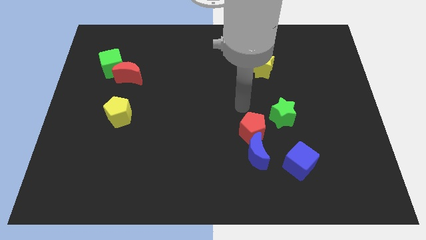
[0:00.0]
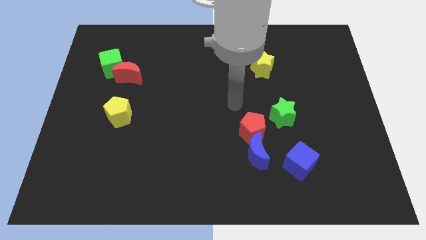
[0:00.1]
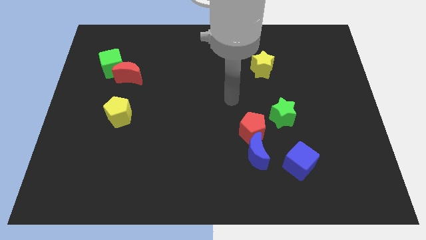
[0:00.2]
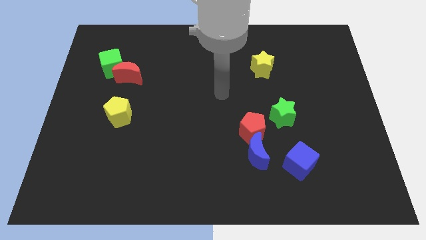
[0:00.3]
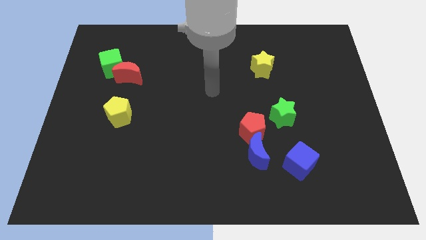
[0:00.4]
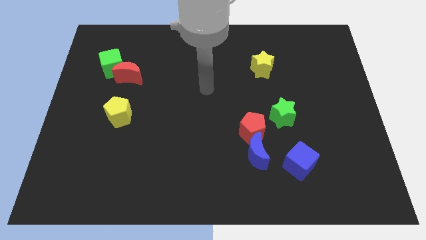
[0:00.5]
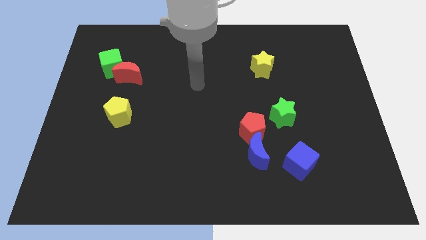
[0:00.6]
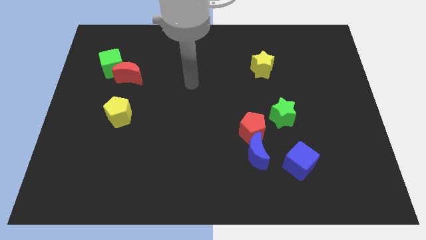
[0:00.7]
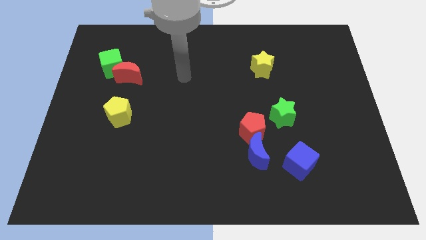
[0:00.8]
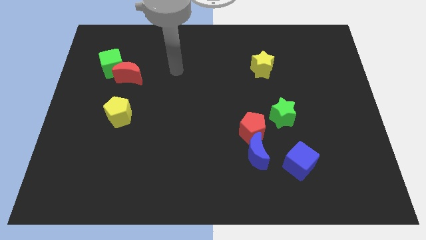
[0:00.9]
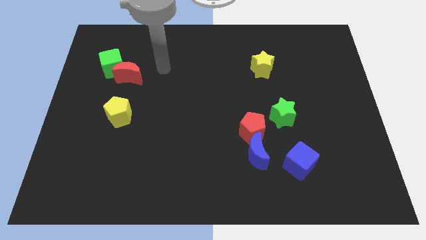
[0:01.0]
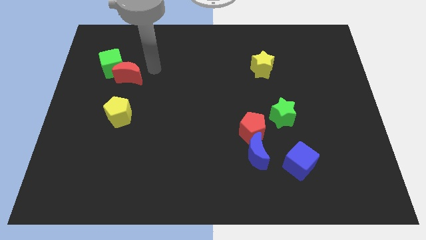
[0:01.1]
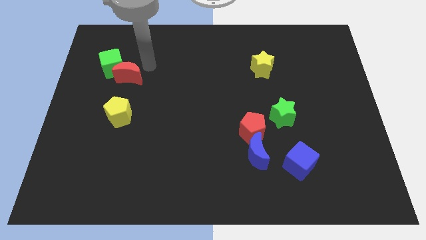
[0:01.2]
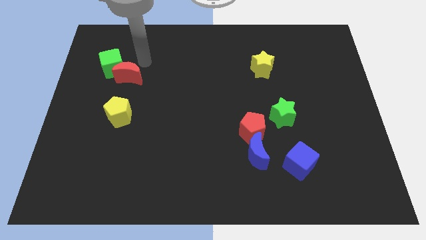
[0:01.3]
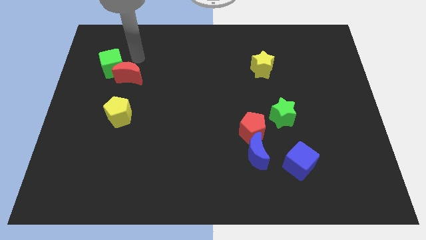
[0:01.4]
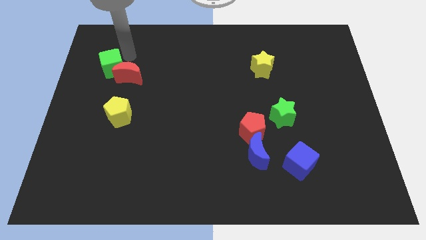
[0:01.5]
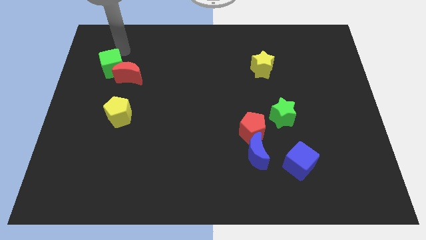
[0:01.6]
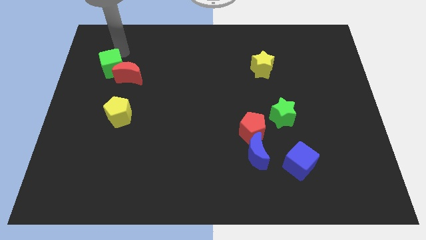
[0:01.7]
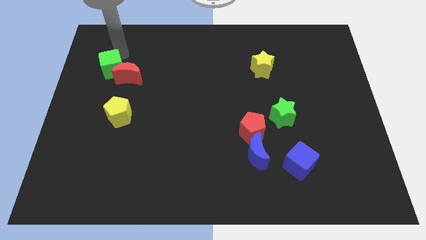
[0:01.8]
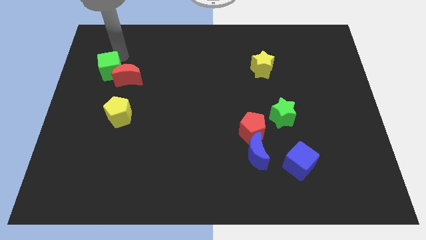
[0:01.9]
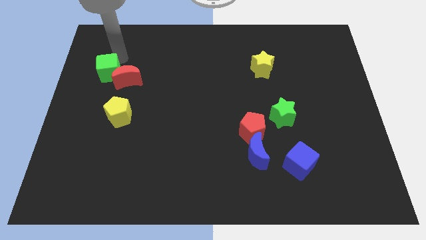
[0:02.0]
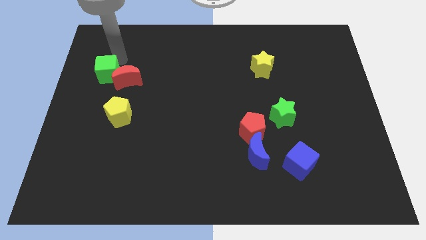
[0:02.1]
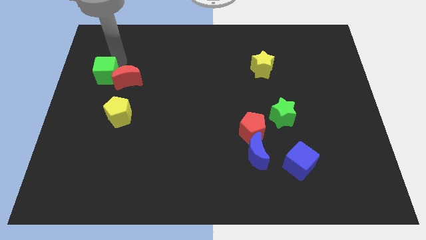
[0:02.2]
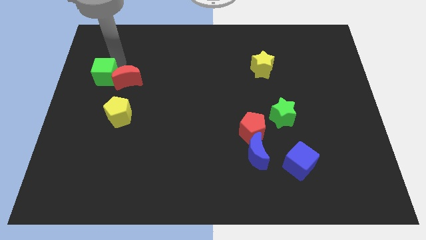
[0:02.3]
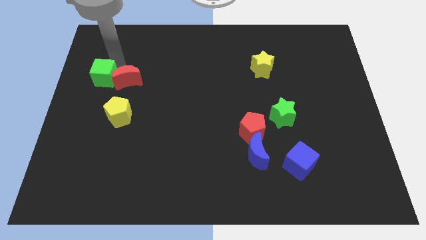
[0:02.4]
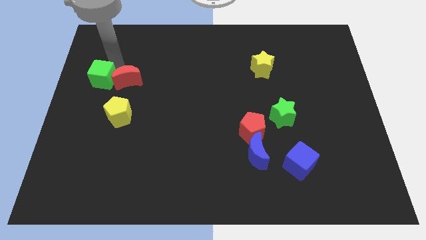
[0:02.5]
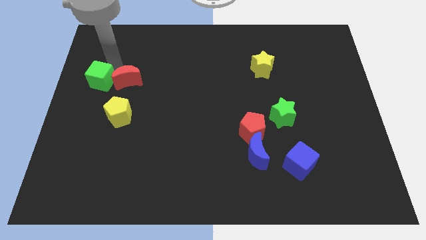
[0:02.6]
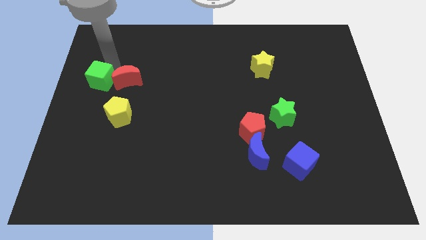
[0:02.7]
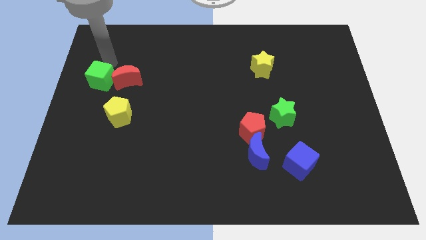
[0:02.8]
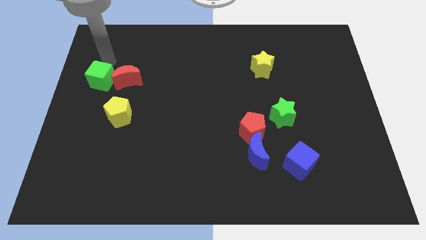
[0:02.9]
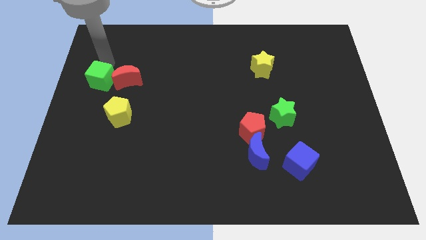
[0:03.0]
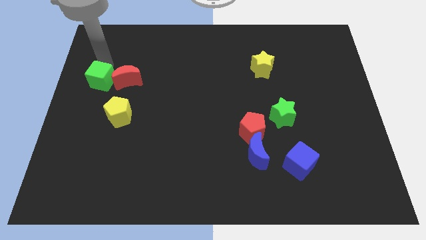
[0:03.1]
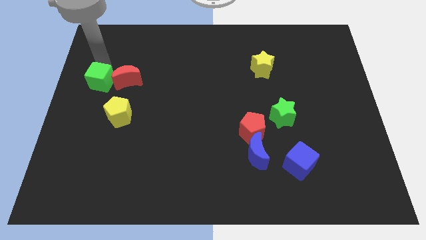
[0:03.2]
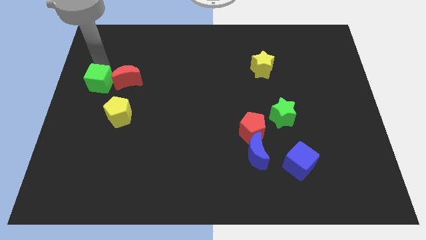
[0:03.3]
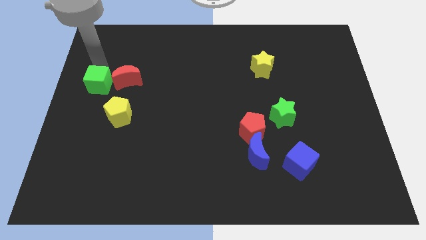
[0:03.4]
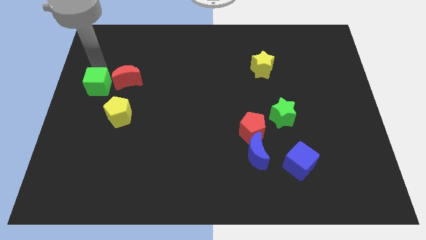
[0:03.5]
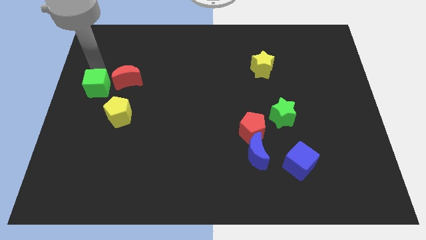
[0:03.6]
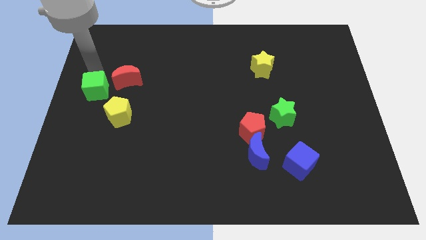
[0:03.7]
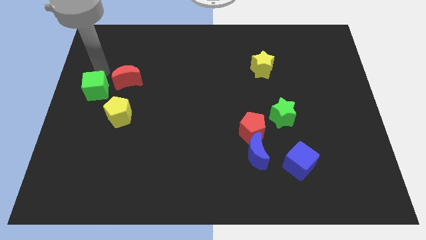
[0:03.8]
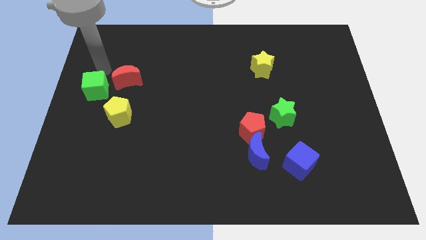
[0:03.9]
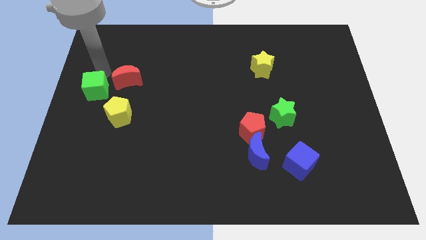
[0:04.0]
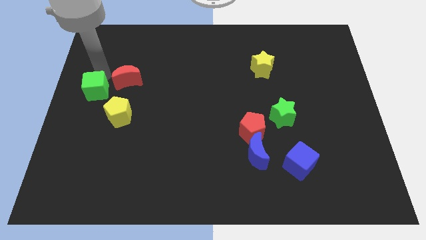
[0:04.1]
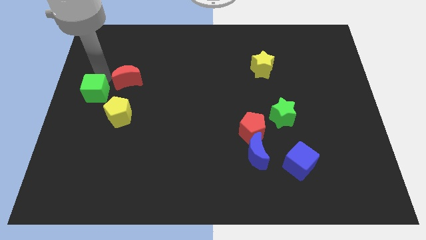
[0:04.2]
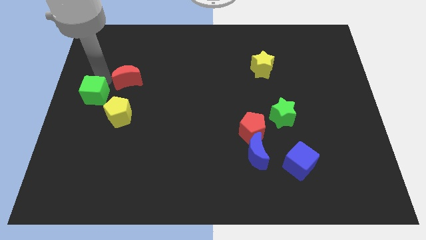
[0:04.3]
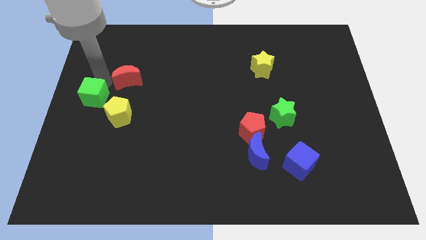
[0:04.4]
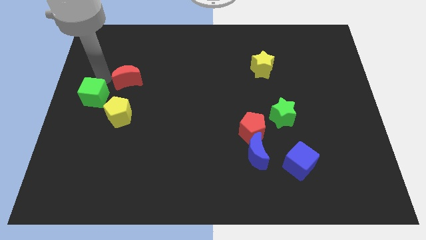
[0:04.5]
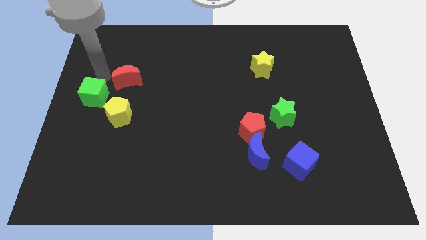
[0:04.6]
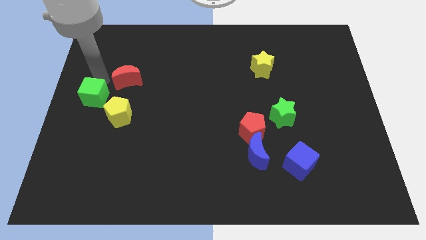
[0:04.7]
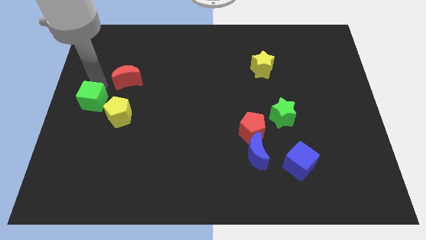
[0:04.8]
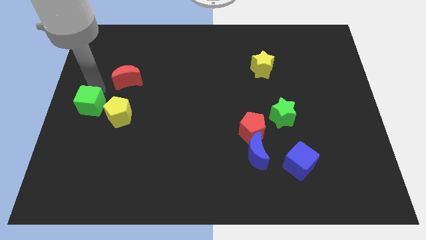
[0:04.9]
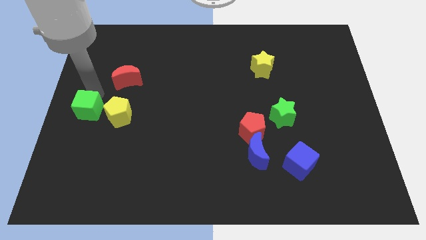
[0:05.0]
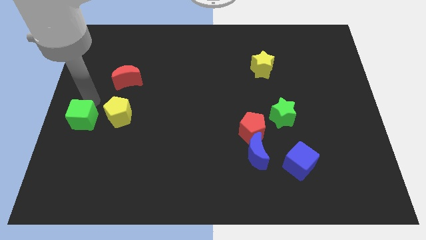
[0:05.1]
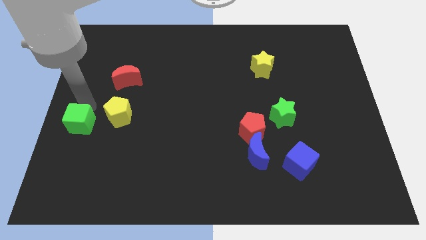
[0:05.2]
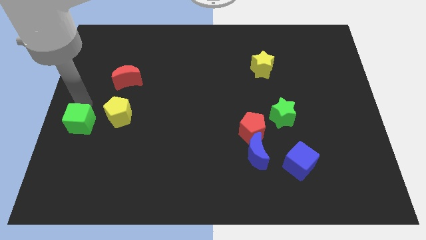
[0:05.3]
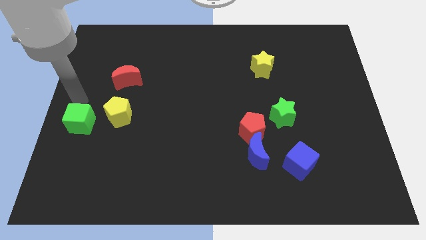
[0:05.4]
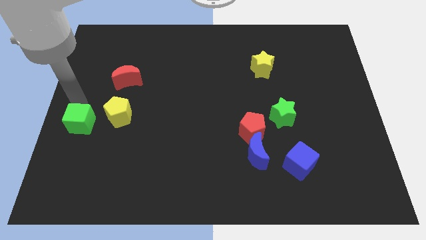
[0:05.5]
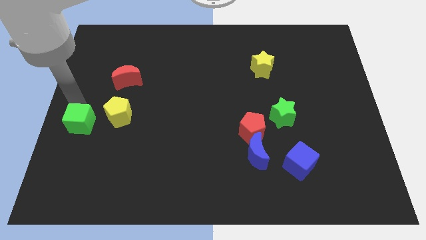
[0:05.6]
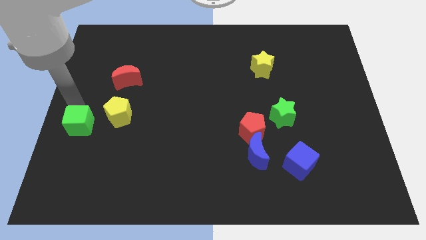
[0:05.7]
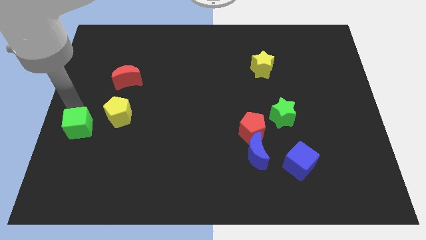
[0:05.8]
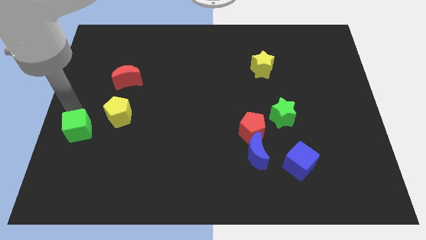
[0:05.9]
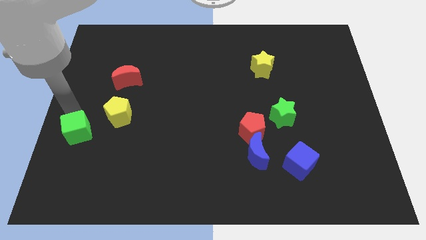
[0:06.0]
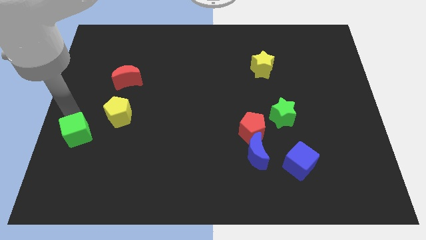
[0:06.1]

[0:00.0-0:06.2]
move the green cube downwards

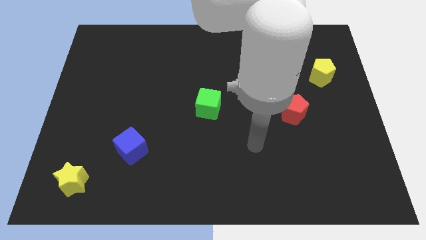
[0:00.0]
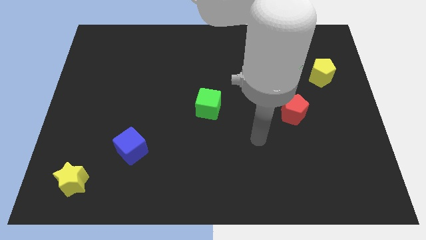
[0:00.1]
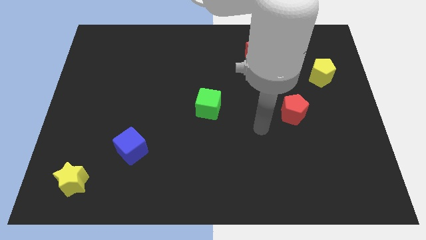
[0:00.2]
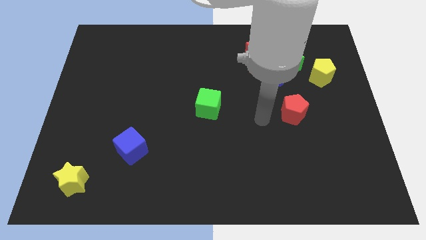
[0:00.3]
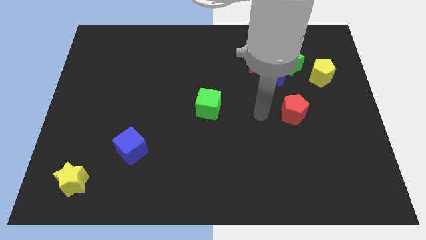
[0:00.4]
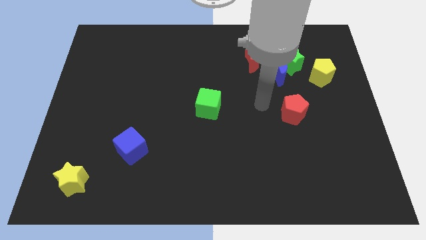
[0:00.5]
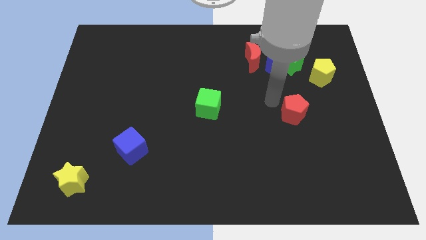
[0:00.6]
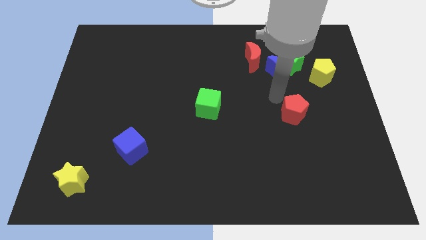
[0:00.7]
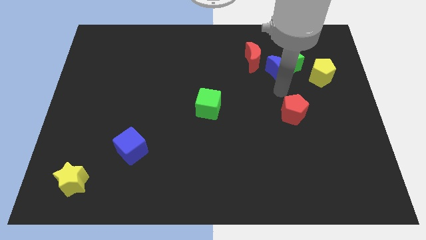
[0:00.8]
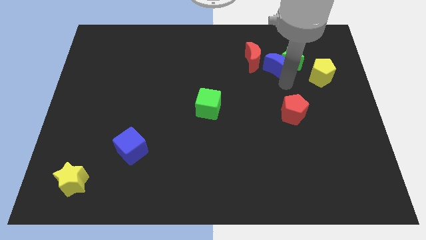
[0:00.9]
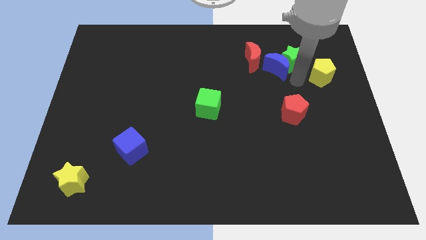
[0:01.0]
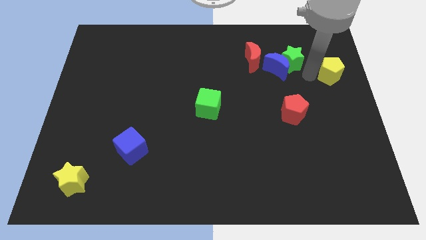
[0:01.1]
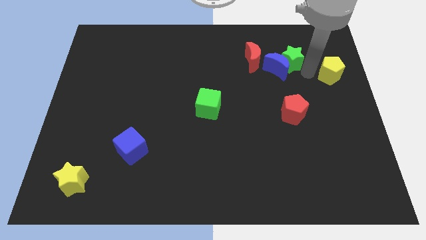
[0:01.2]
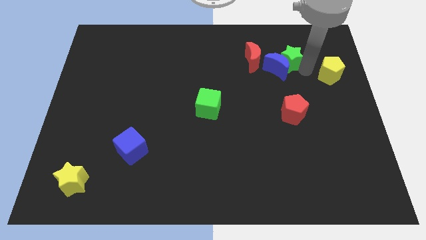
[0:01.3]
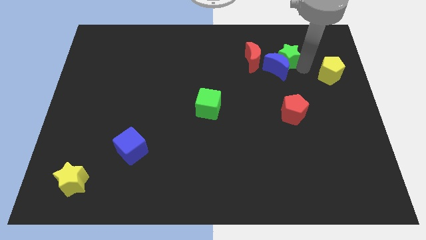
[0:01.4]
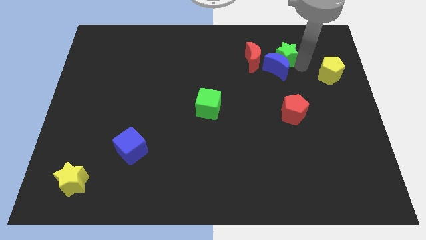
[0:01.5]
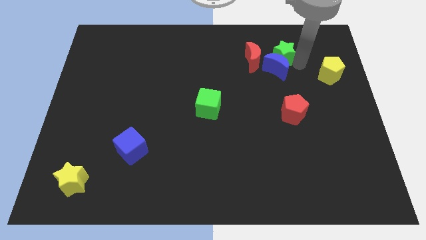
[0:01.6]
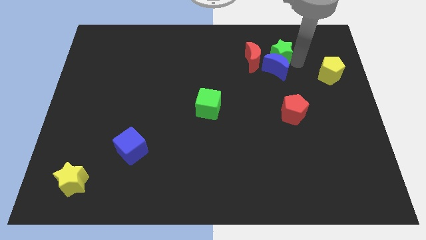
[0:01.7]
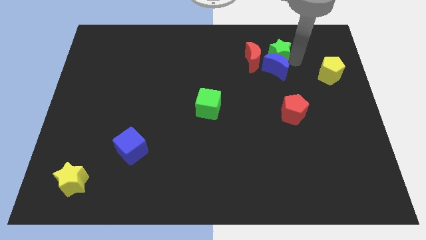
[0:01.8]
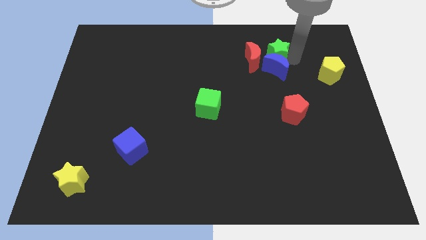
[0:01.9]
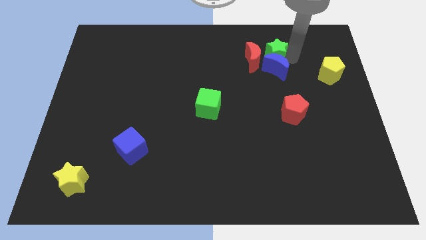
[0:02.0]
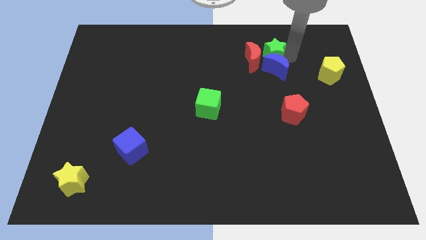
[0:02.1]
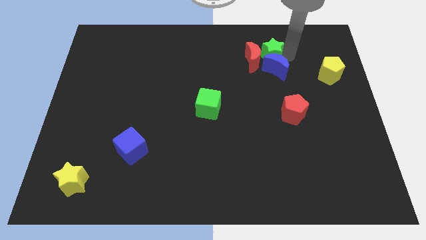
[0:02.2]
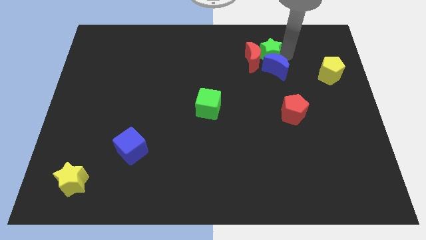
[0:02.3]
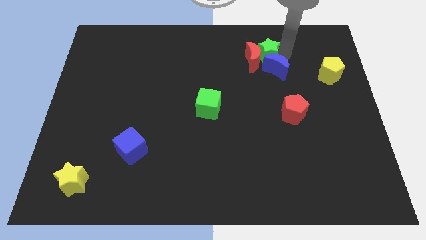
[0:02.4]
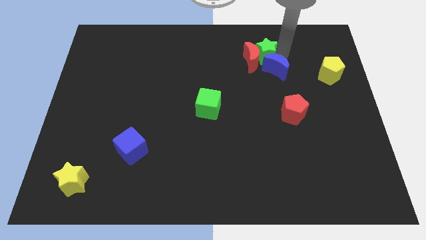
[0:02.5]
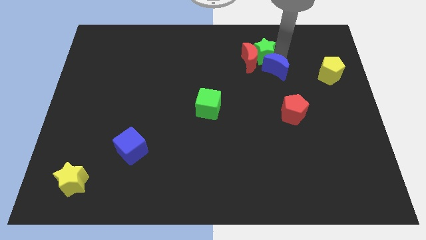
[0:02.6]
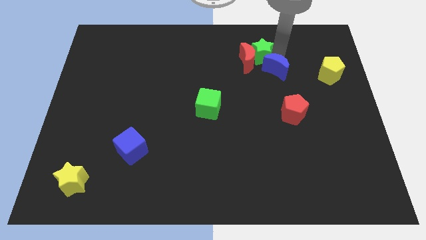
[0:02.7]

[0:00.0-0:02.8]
push the green star somewhat to the left
